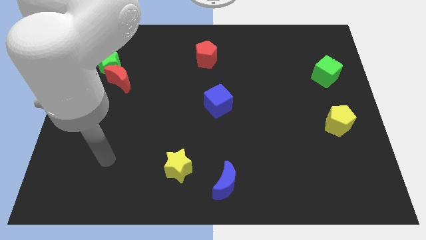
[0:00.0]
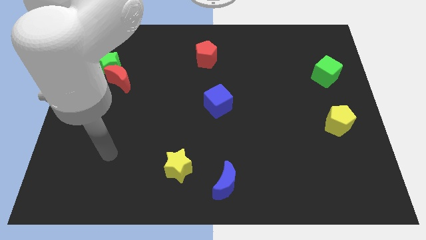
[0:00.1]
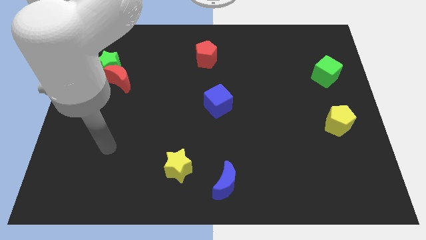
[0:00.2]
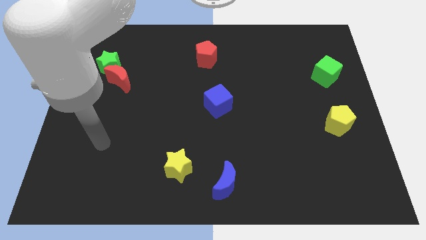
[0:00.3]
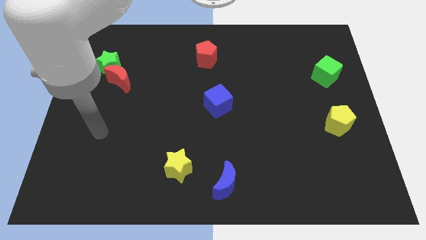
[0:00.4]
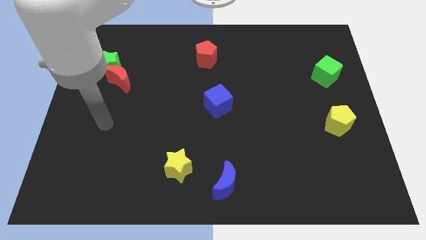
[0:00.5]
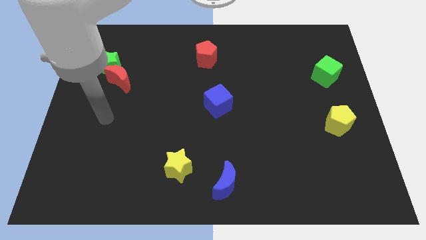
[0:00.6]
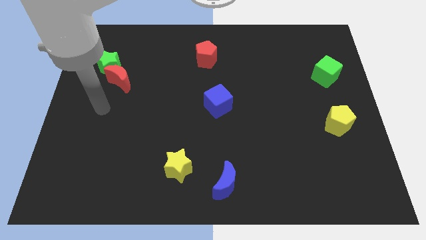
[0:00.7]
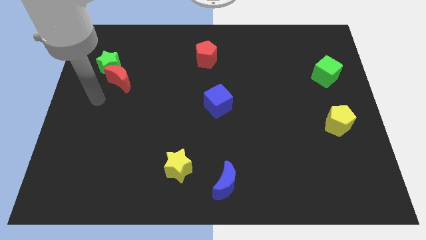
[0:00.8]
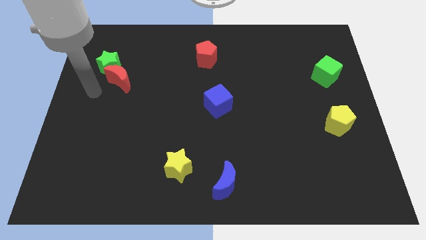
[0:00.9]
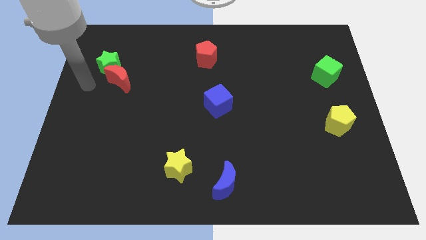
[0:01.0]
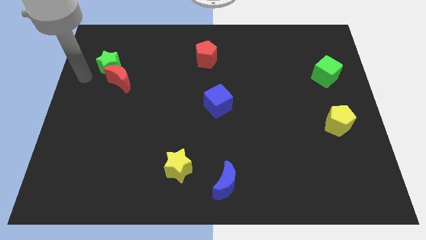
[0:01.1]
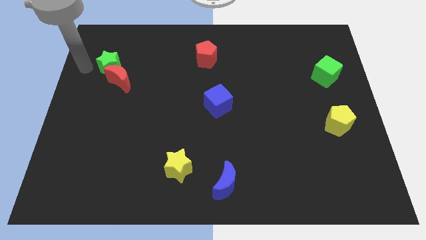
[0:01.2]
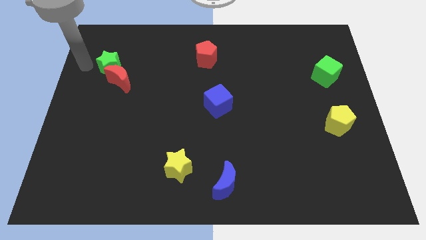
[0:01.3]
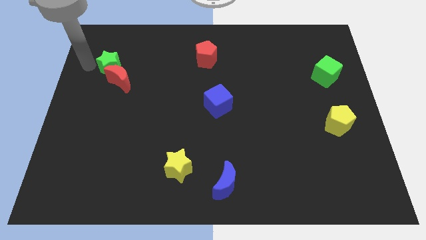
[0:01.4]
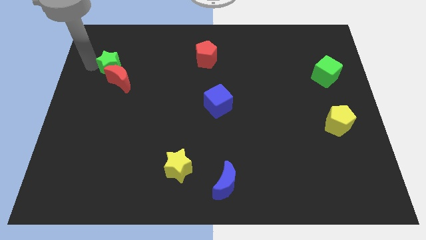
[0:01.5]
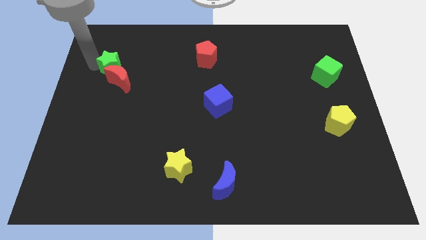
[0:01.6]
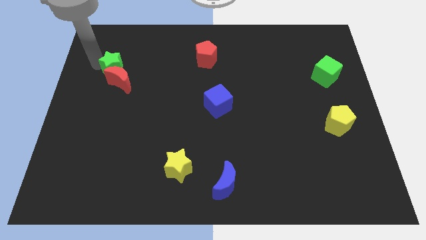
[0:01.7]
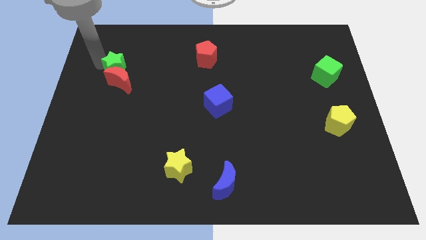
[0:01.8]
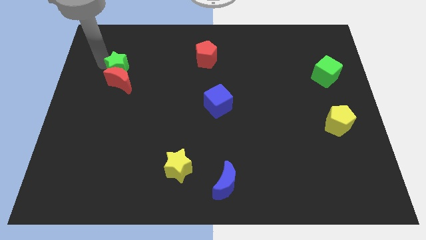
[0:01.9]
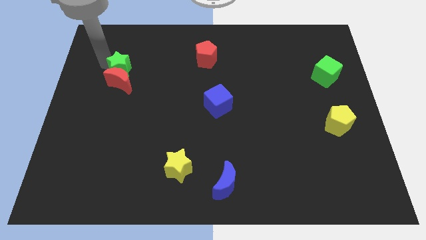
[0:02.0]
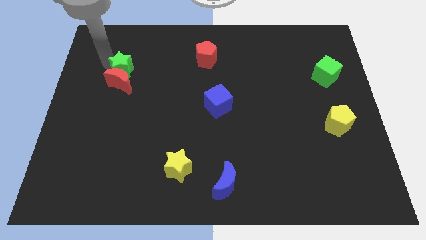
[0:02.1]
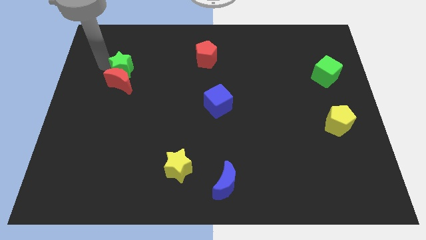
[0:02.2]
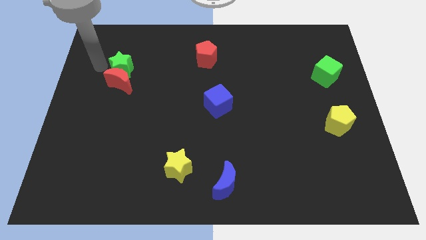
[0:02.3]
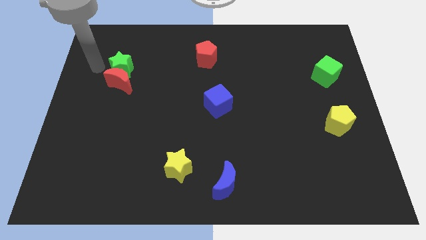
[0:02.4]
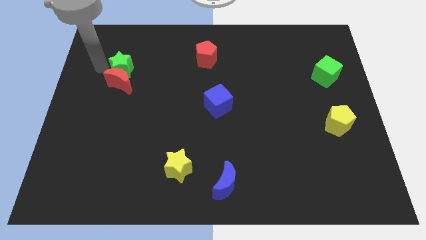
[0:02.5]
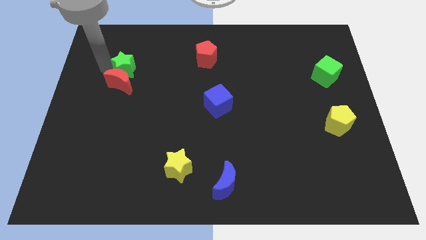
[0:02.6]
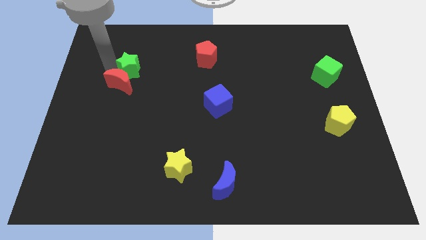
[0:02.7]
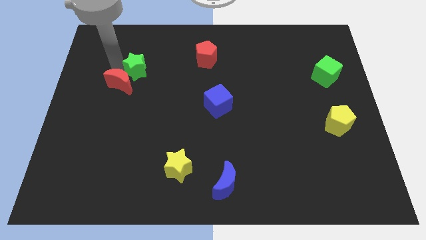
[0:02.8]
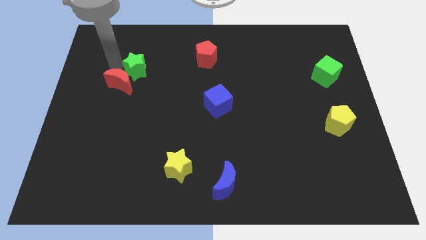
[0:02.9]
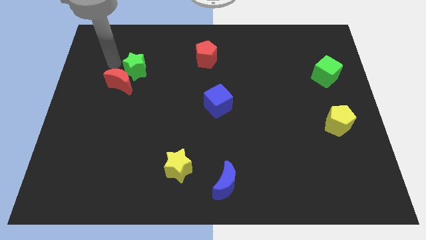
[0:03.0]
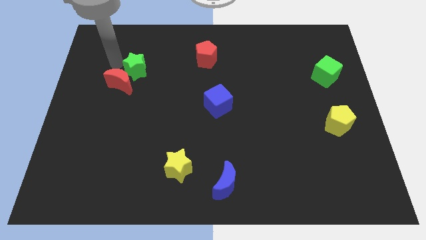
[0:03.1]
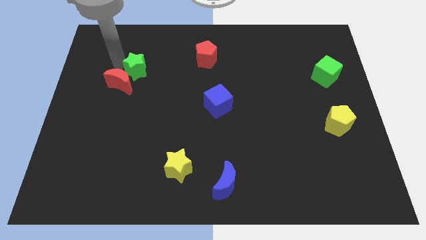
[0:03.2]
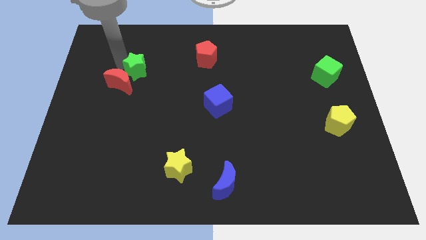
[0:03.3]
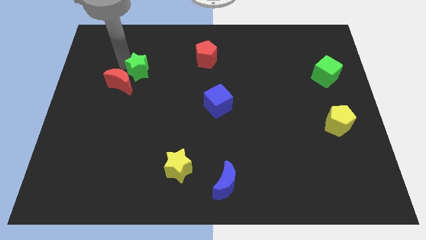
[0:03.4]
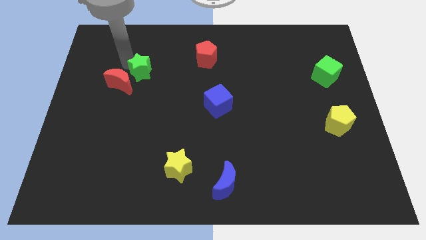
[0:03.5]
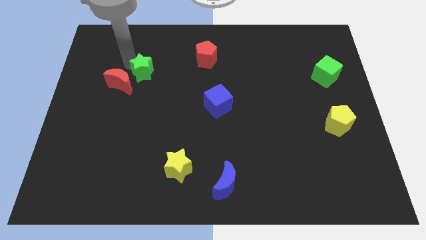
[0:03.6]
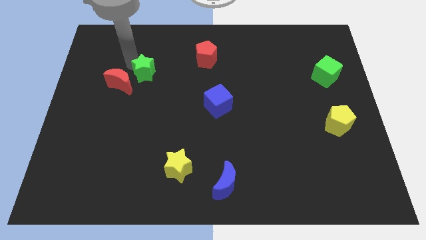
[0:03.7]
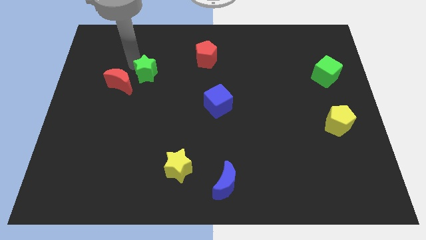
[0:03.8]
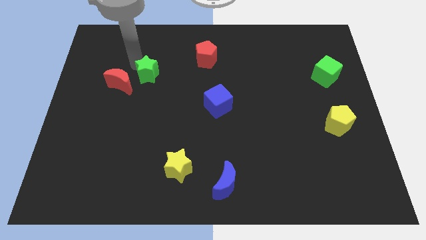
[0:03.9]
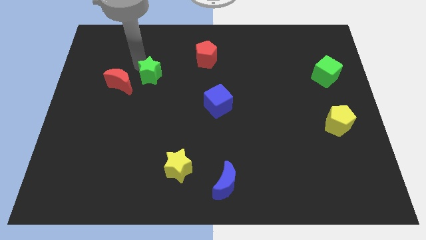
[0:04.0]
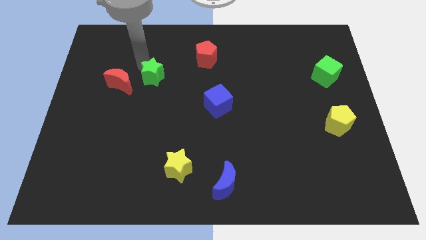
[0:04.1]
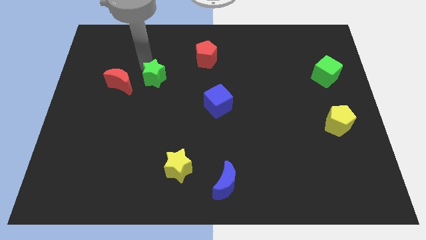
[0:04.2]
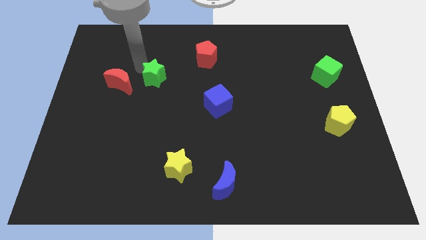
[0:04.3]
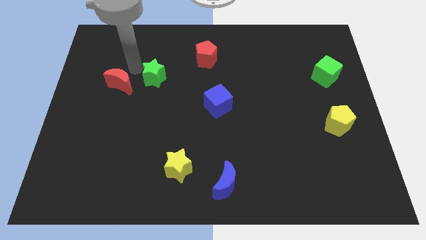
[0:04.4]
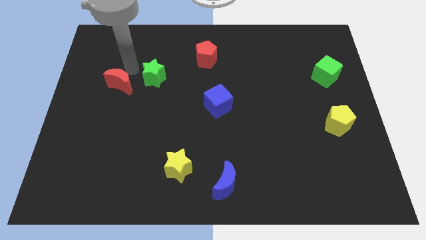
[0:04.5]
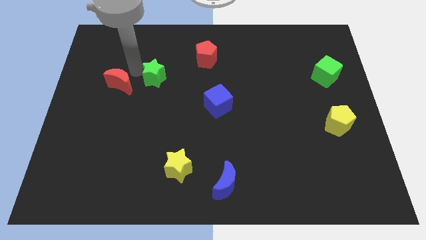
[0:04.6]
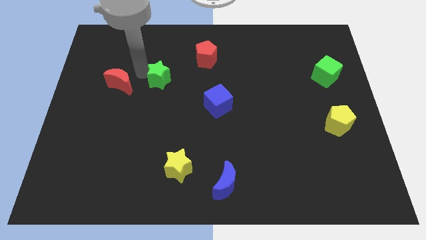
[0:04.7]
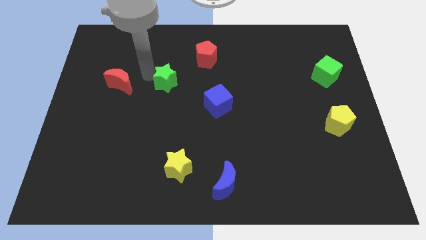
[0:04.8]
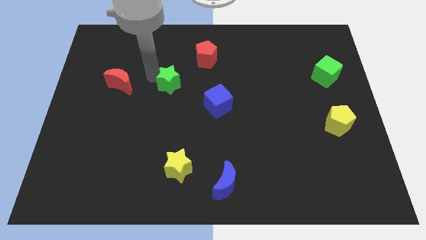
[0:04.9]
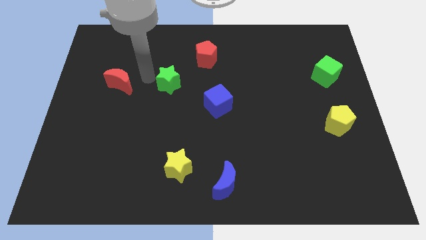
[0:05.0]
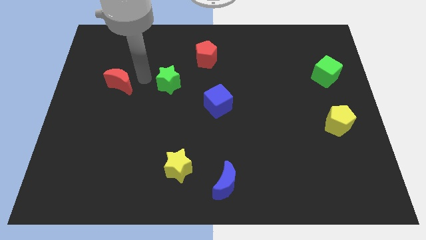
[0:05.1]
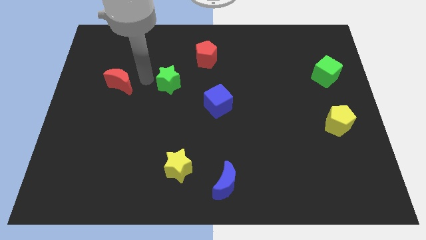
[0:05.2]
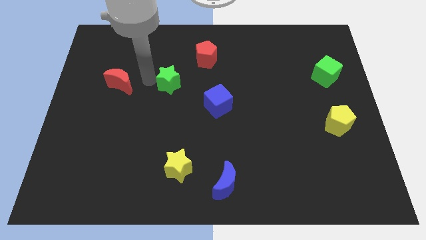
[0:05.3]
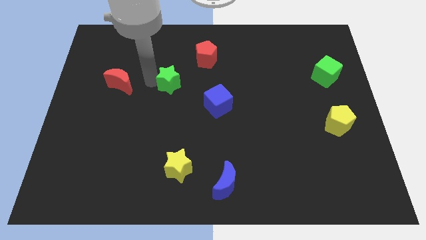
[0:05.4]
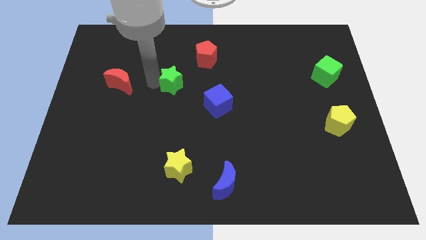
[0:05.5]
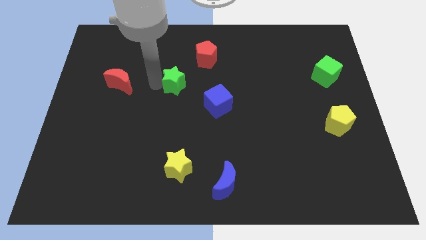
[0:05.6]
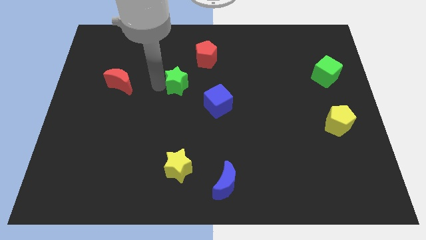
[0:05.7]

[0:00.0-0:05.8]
push the green star to the top left of the blue cube
